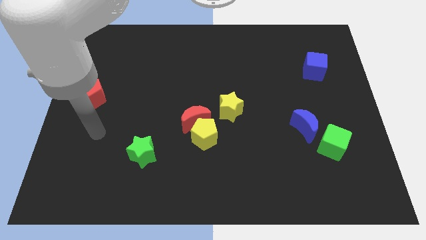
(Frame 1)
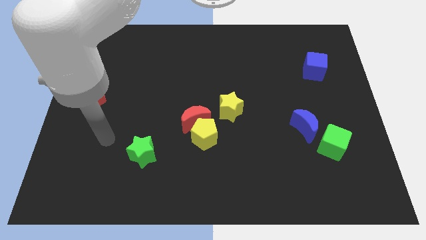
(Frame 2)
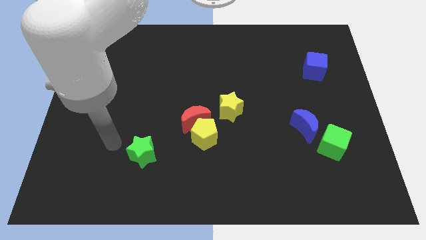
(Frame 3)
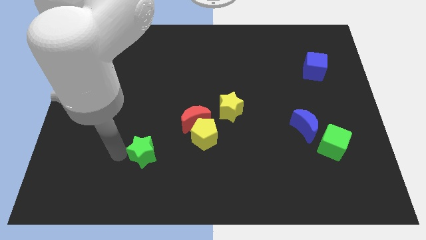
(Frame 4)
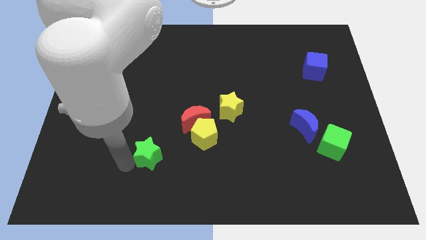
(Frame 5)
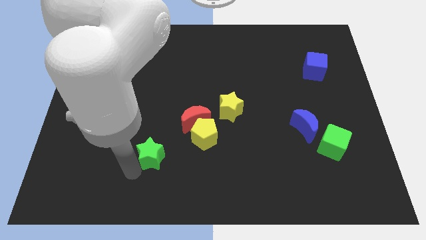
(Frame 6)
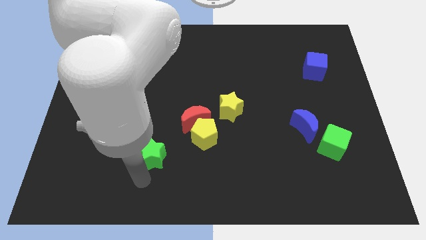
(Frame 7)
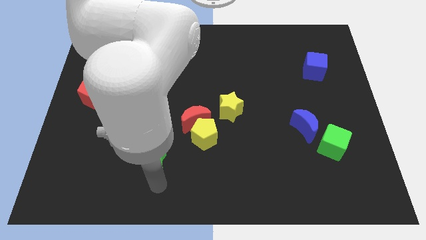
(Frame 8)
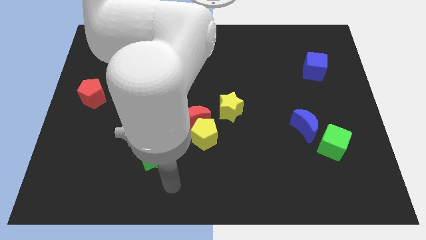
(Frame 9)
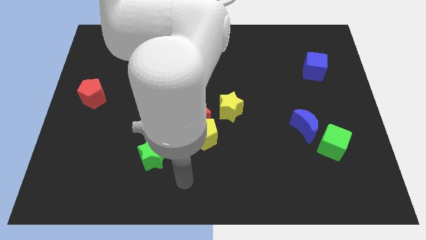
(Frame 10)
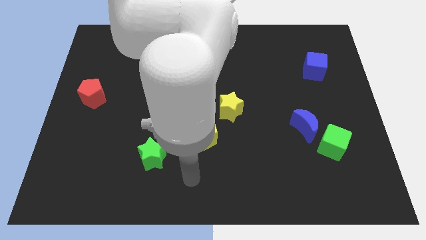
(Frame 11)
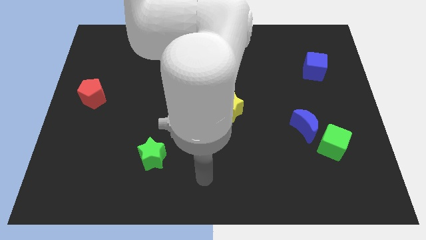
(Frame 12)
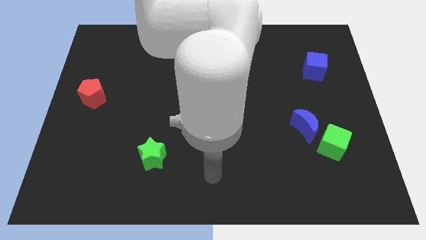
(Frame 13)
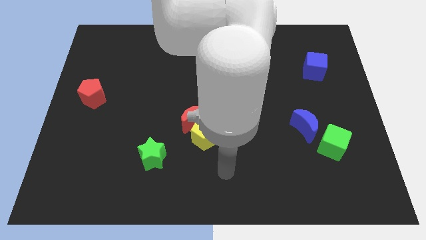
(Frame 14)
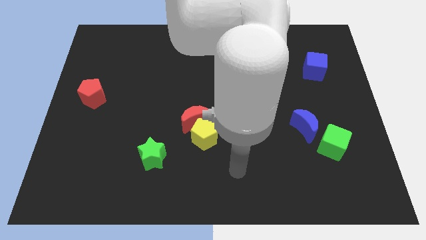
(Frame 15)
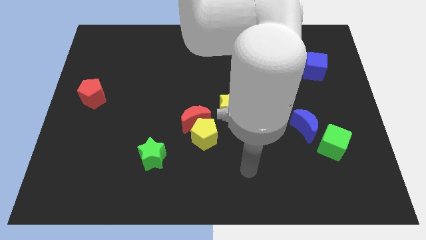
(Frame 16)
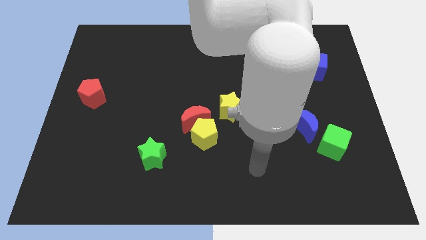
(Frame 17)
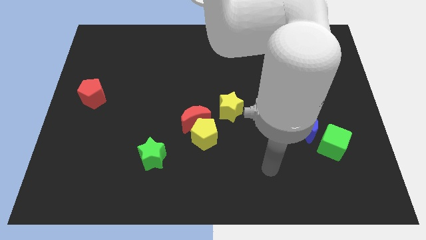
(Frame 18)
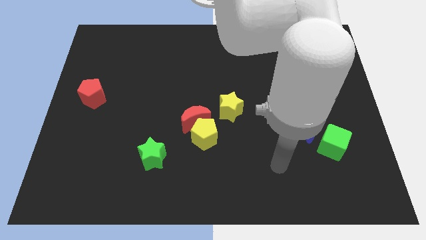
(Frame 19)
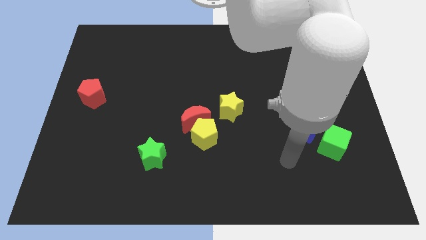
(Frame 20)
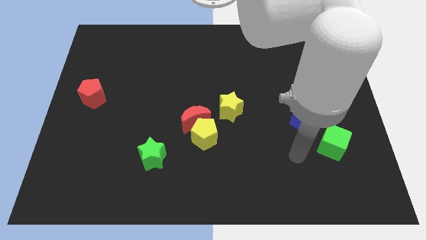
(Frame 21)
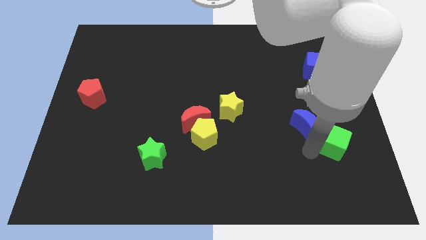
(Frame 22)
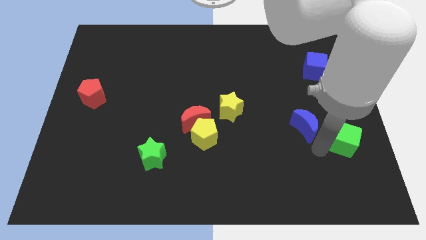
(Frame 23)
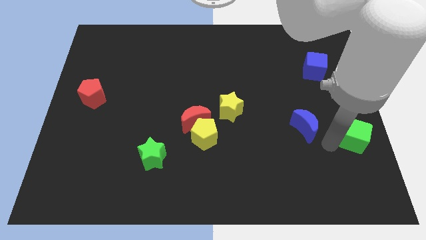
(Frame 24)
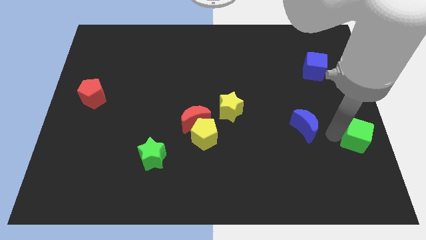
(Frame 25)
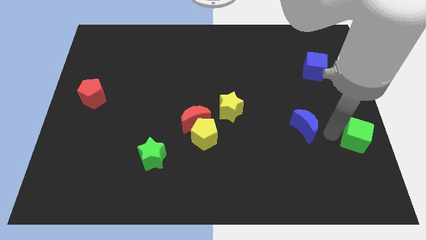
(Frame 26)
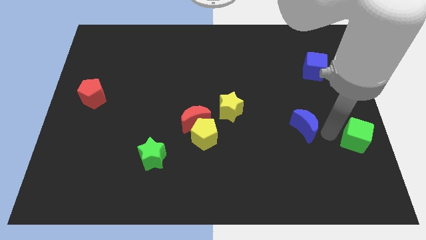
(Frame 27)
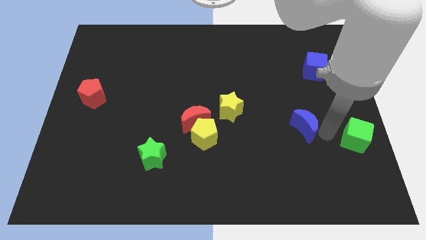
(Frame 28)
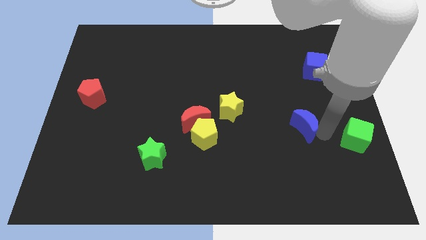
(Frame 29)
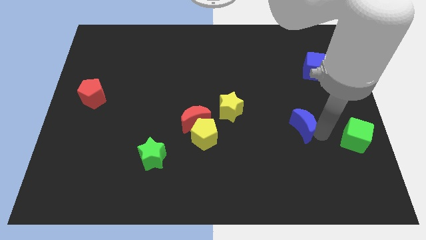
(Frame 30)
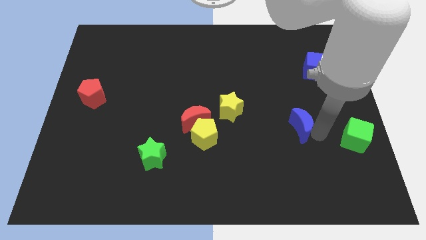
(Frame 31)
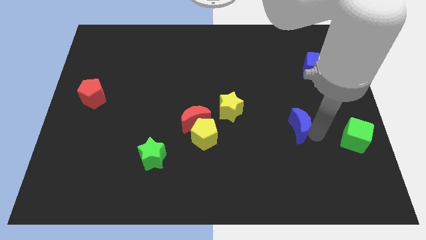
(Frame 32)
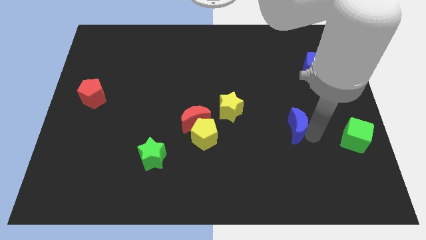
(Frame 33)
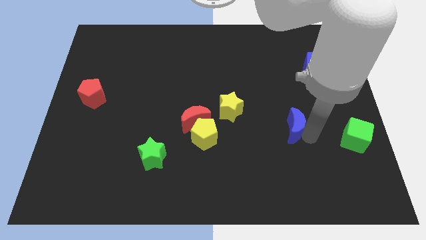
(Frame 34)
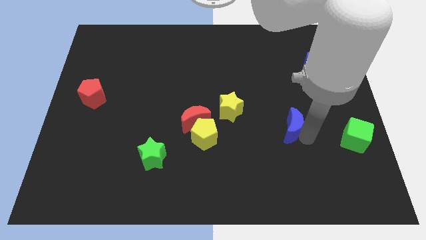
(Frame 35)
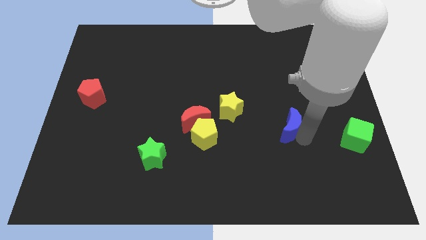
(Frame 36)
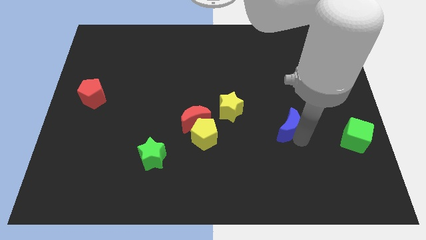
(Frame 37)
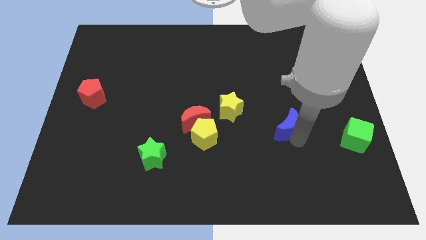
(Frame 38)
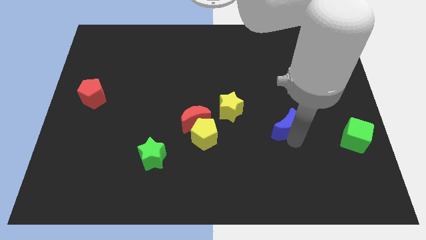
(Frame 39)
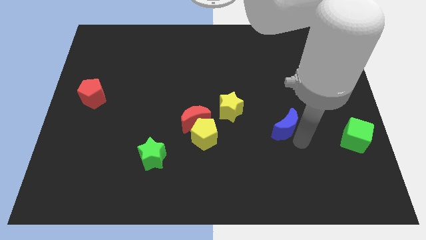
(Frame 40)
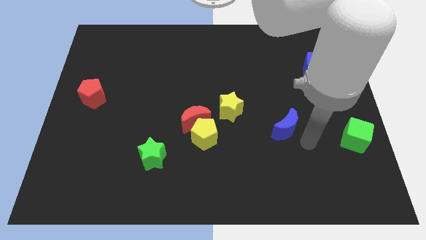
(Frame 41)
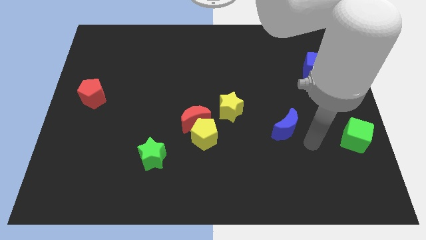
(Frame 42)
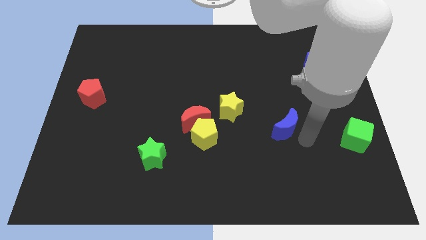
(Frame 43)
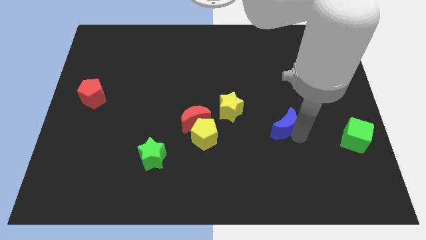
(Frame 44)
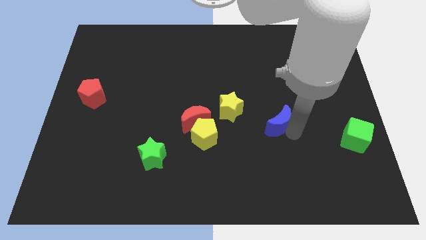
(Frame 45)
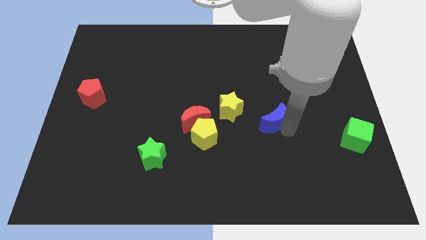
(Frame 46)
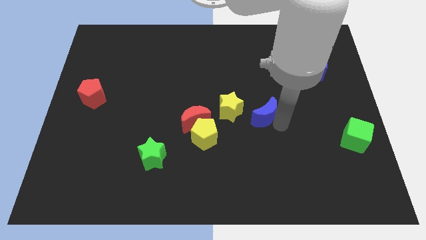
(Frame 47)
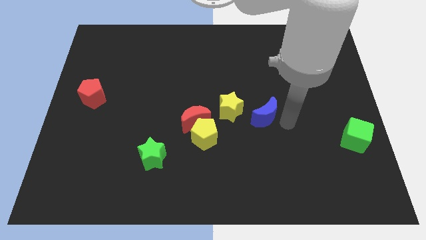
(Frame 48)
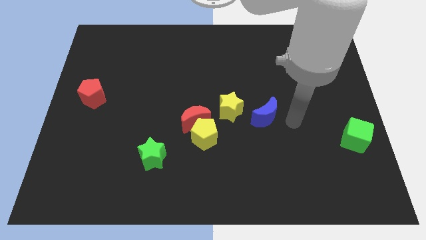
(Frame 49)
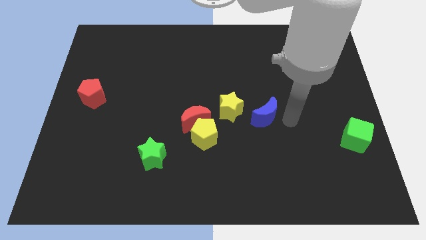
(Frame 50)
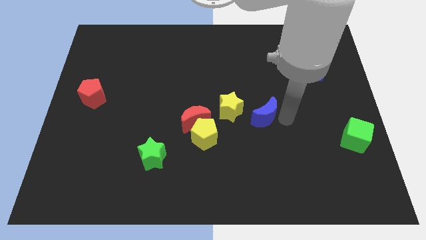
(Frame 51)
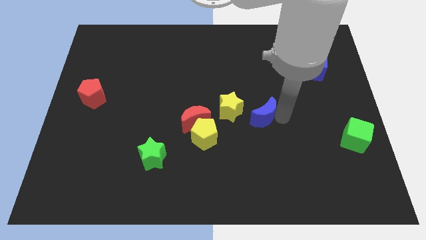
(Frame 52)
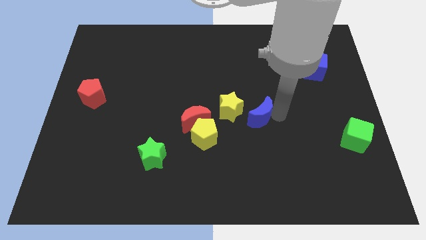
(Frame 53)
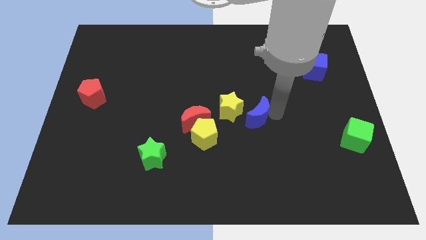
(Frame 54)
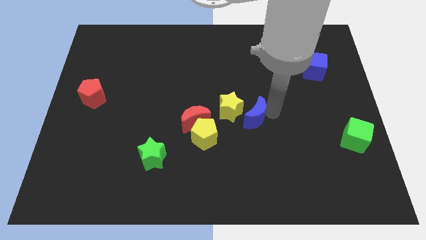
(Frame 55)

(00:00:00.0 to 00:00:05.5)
move the blue moon next to the yellow star

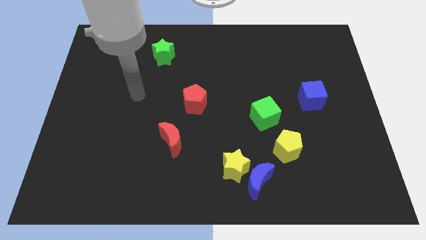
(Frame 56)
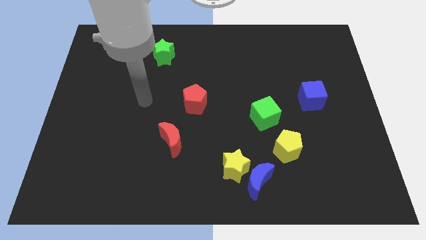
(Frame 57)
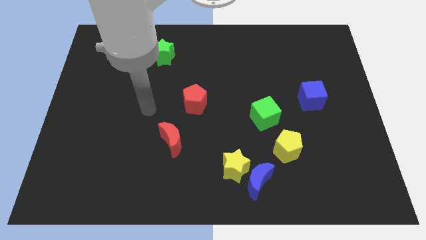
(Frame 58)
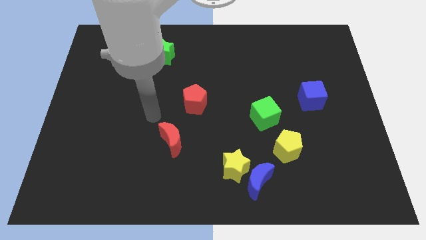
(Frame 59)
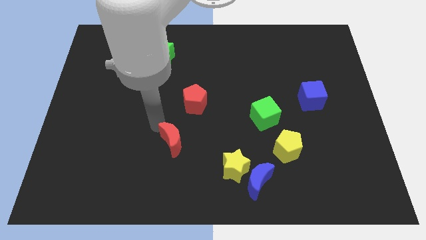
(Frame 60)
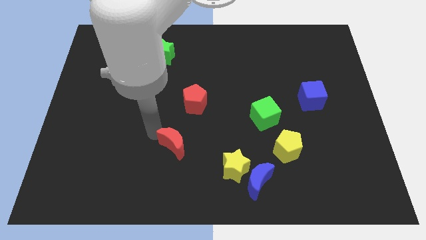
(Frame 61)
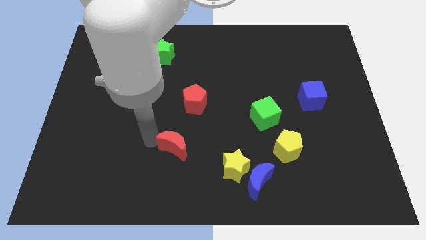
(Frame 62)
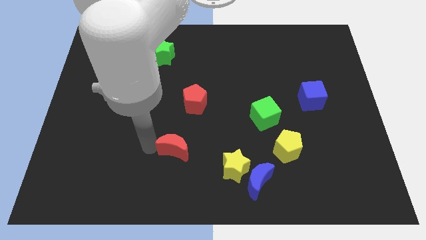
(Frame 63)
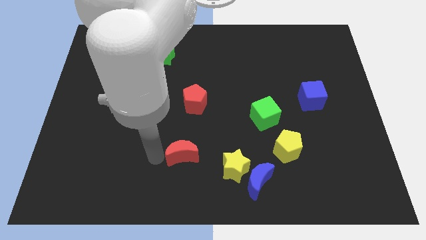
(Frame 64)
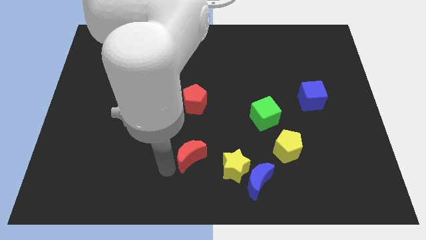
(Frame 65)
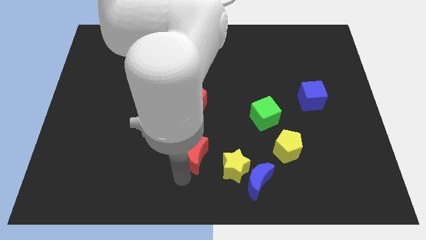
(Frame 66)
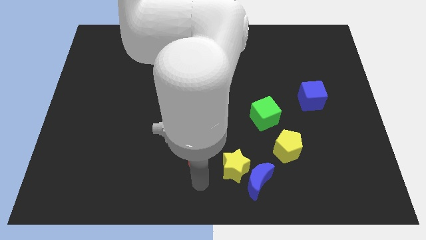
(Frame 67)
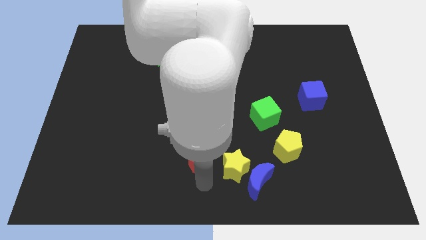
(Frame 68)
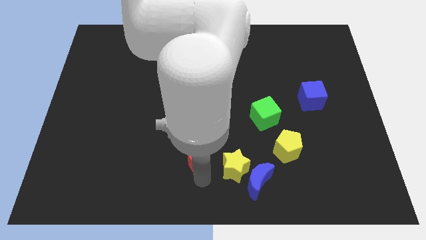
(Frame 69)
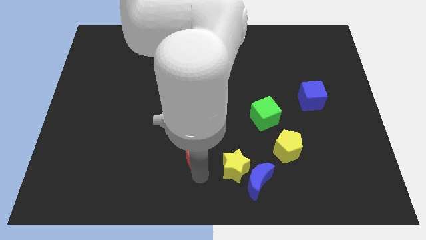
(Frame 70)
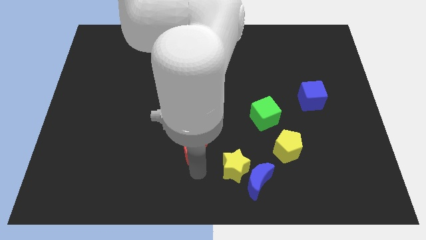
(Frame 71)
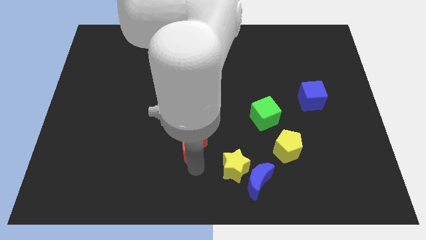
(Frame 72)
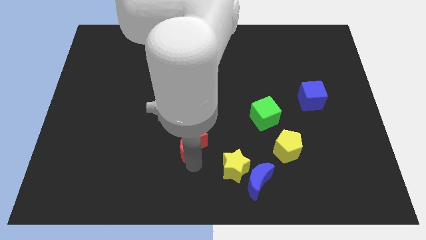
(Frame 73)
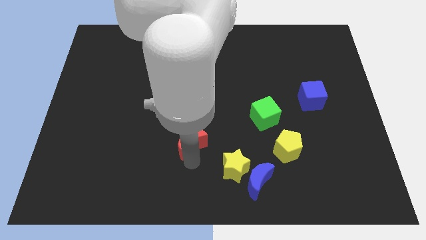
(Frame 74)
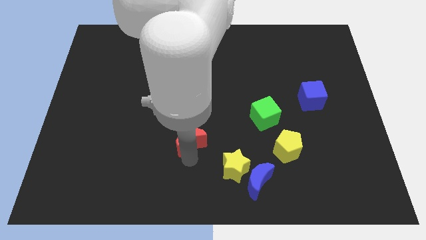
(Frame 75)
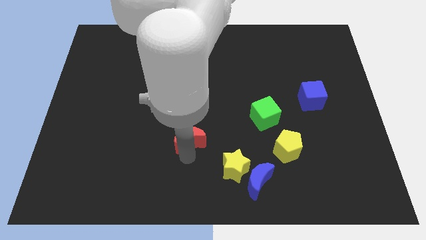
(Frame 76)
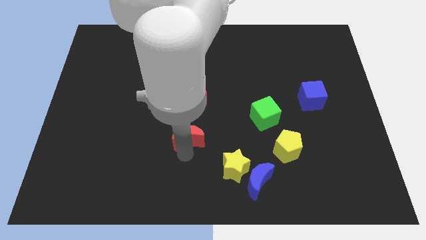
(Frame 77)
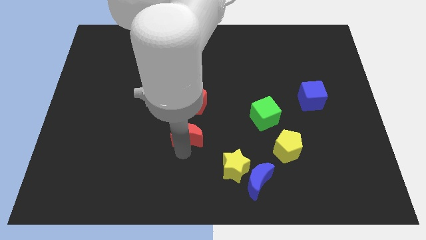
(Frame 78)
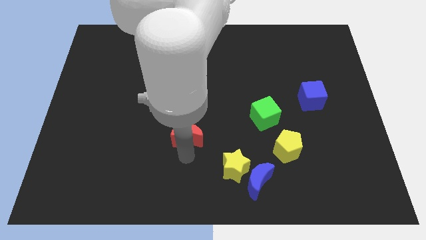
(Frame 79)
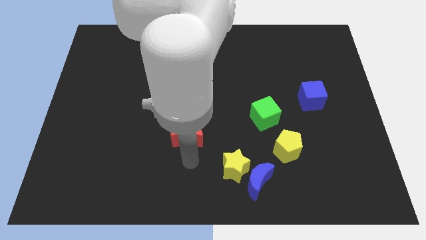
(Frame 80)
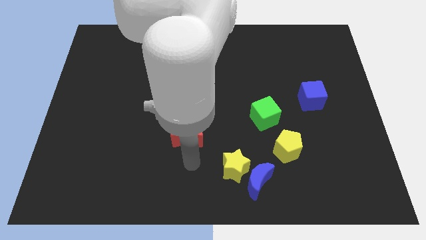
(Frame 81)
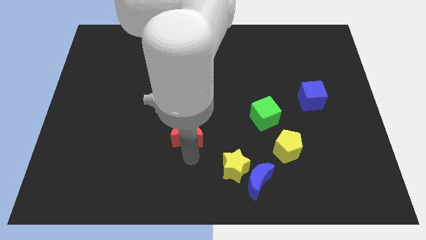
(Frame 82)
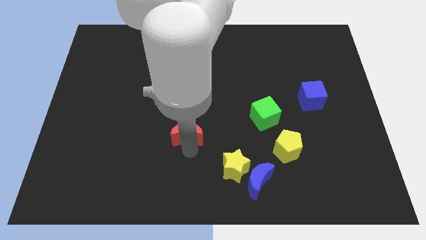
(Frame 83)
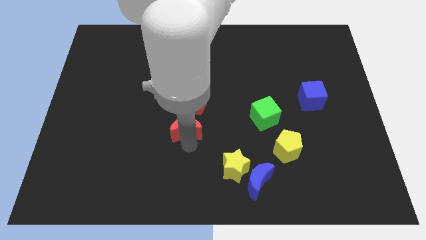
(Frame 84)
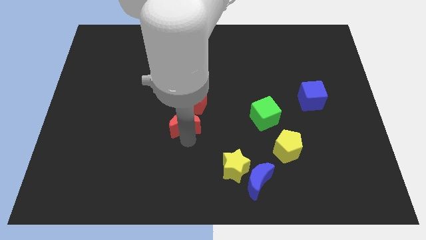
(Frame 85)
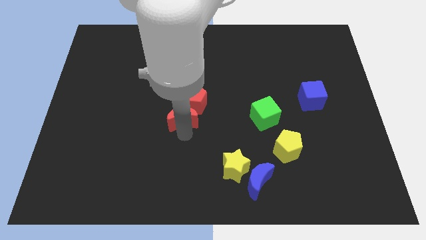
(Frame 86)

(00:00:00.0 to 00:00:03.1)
slide the red moon towards the red pentagon
